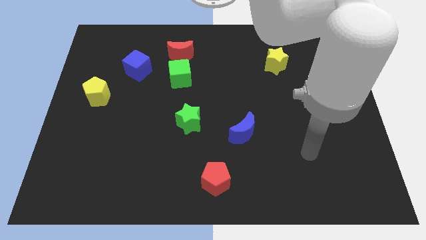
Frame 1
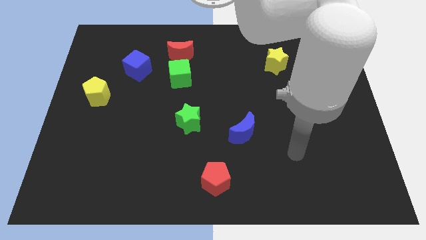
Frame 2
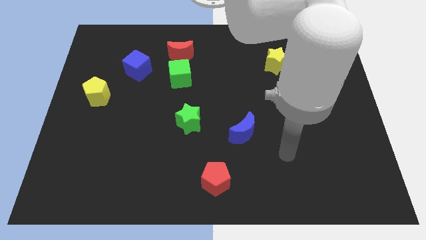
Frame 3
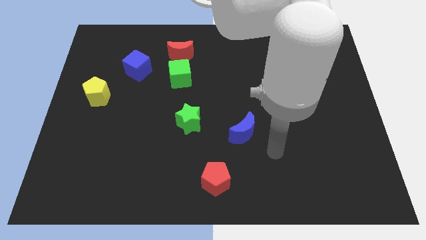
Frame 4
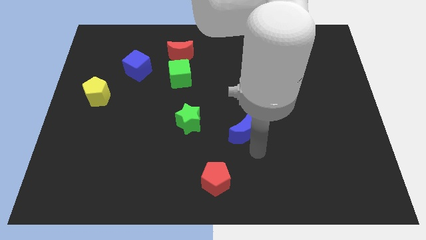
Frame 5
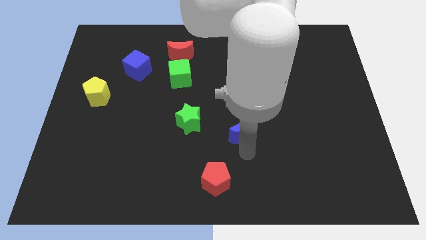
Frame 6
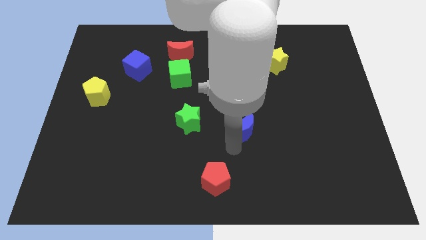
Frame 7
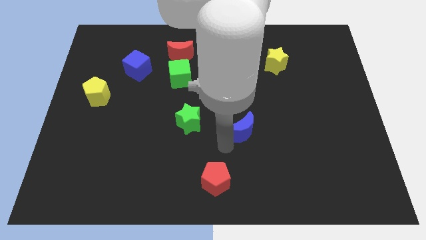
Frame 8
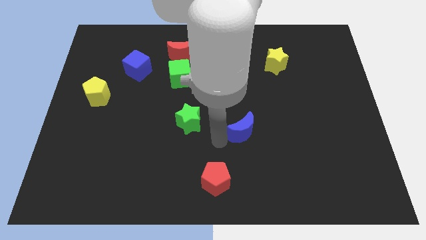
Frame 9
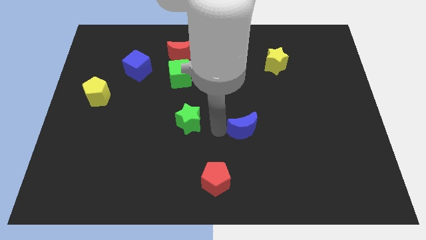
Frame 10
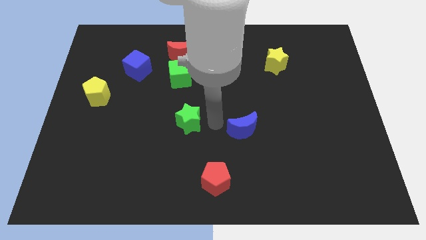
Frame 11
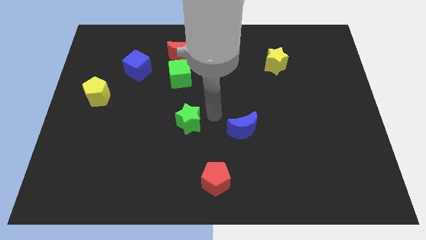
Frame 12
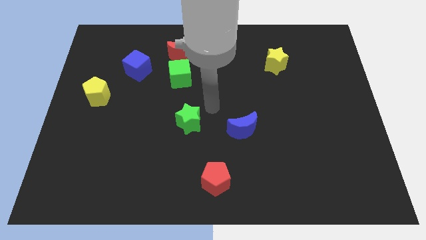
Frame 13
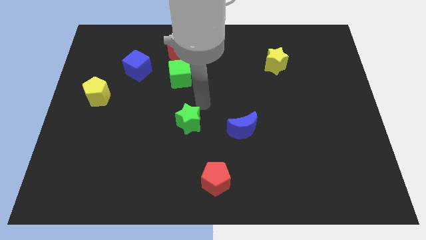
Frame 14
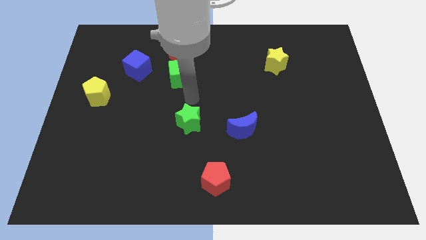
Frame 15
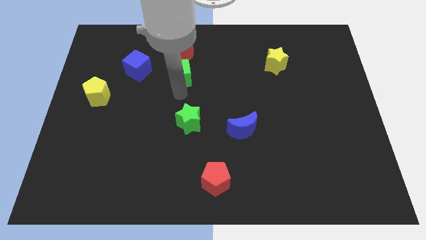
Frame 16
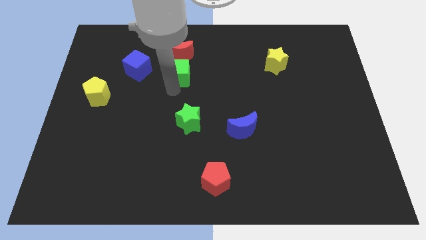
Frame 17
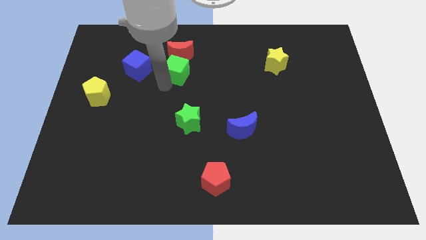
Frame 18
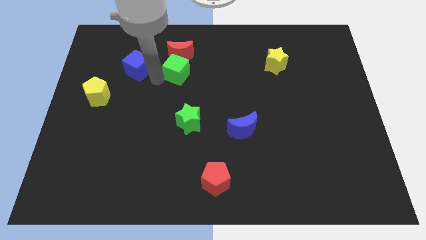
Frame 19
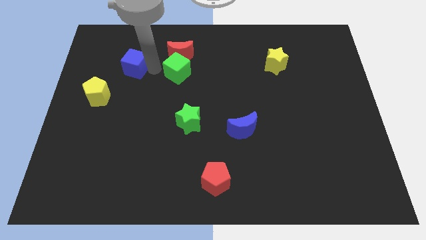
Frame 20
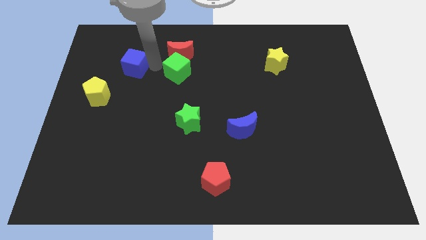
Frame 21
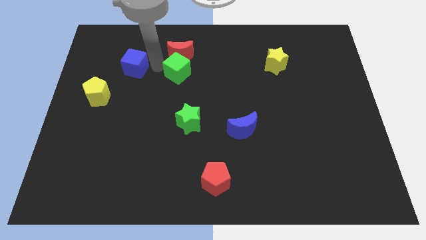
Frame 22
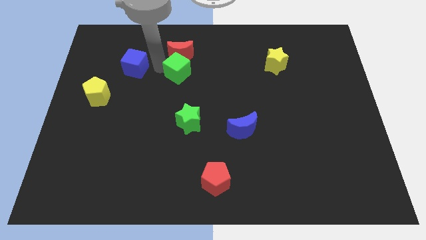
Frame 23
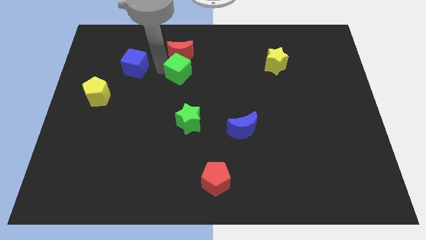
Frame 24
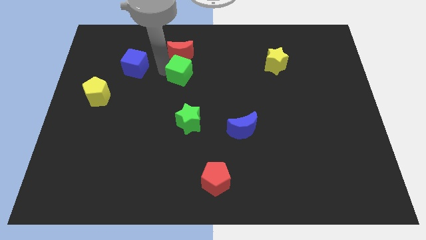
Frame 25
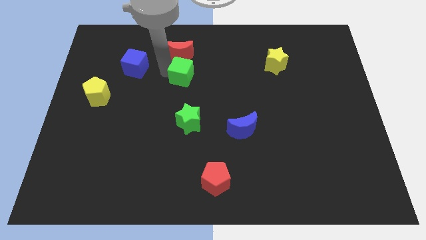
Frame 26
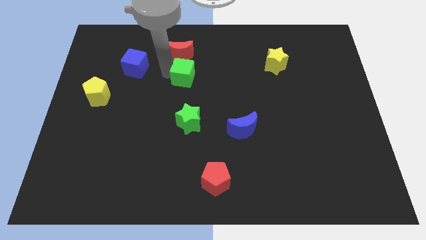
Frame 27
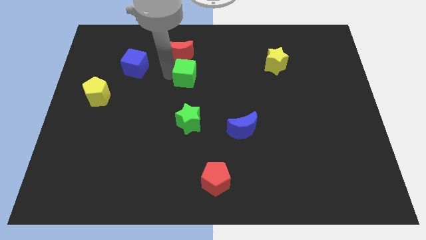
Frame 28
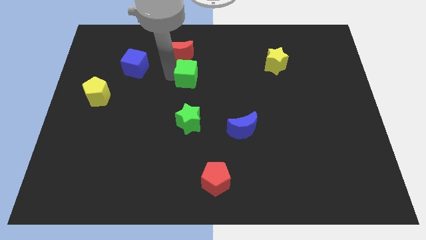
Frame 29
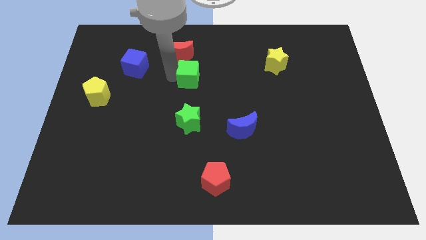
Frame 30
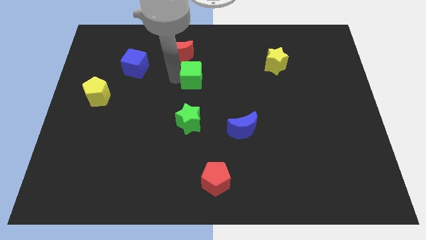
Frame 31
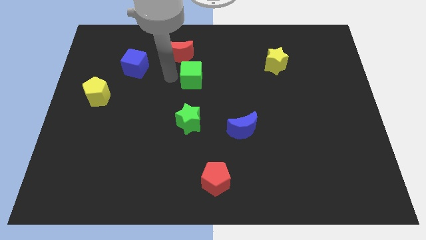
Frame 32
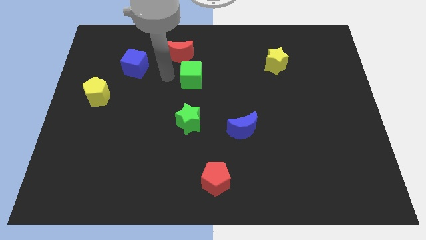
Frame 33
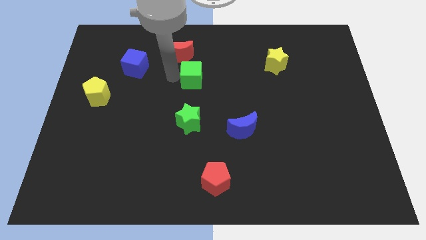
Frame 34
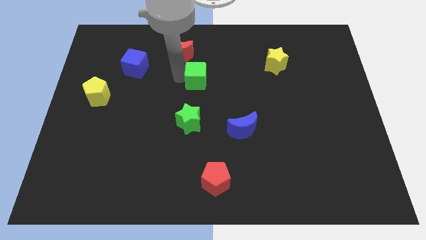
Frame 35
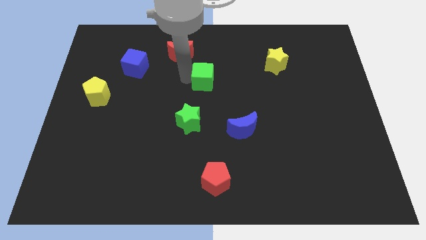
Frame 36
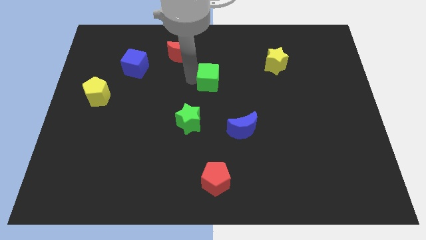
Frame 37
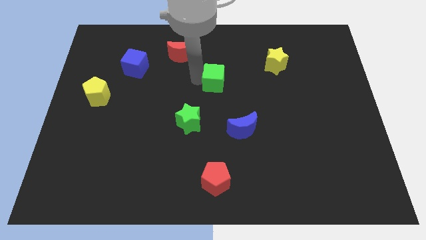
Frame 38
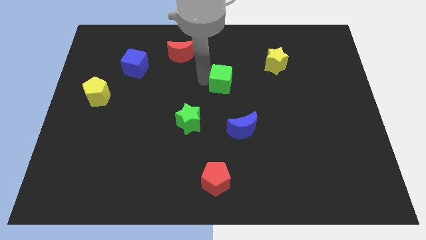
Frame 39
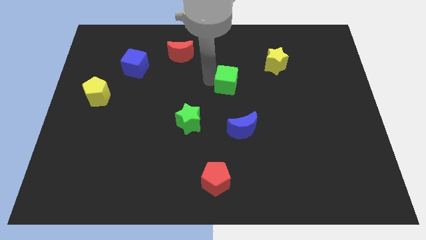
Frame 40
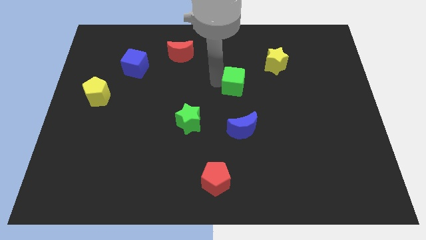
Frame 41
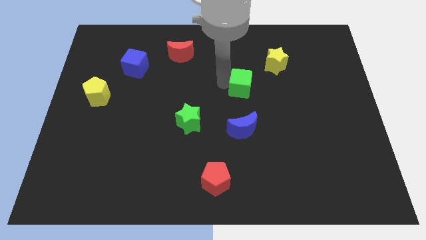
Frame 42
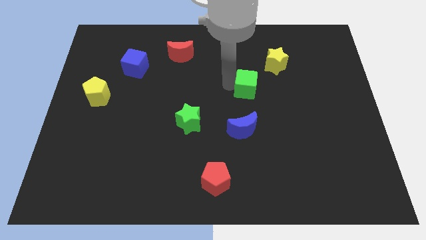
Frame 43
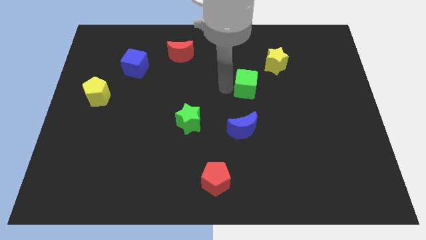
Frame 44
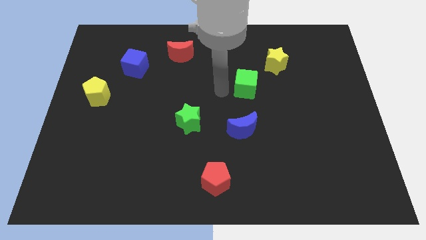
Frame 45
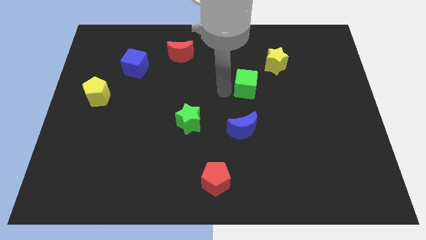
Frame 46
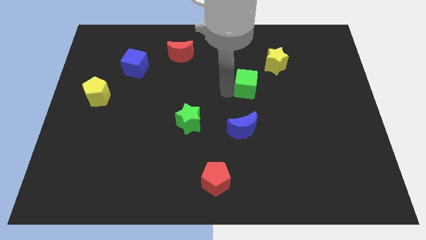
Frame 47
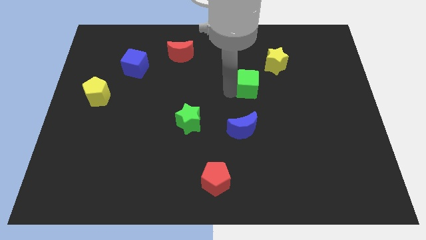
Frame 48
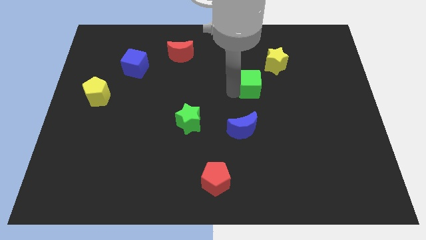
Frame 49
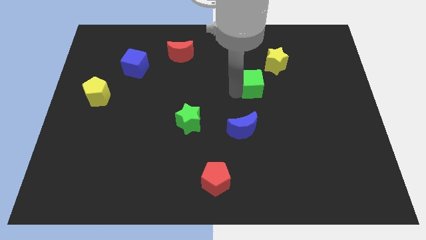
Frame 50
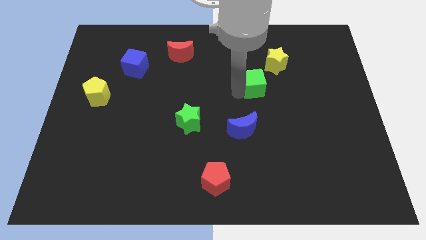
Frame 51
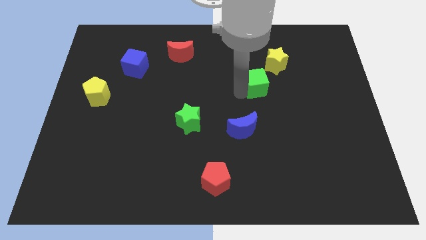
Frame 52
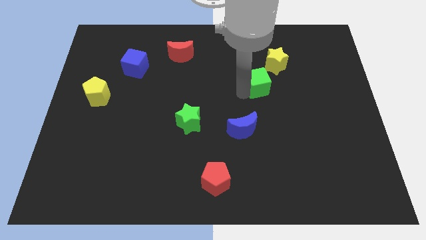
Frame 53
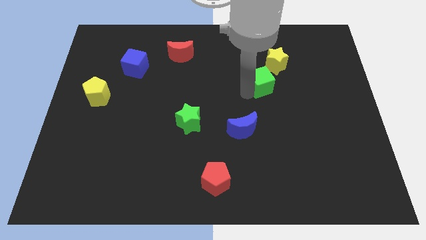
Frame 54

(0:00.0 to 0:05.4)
move the green cube right

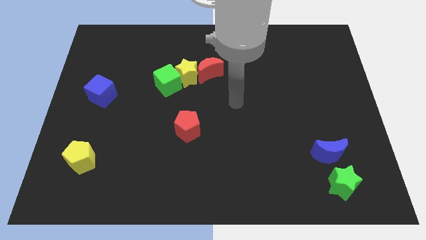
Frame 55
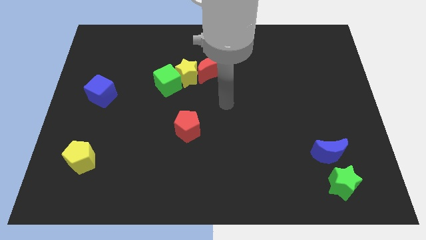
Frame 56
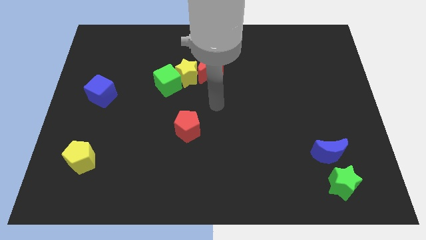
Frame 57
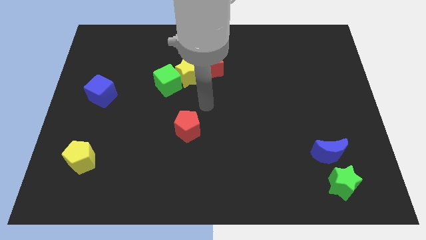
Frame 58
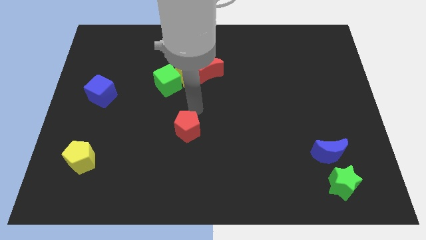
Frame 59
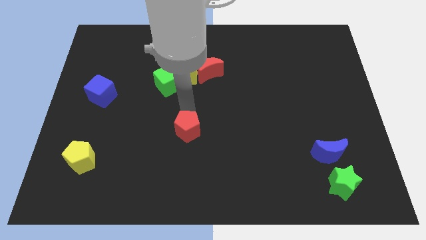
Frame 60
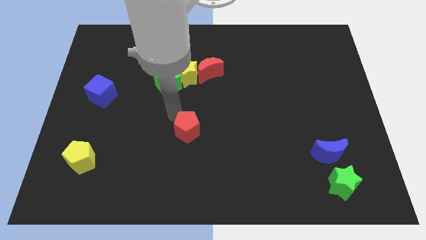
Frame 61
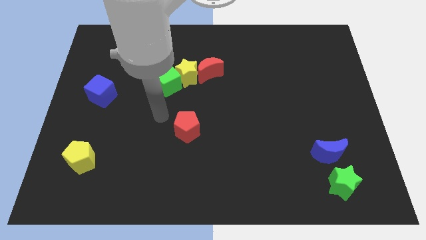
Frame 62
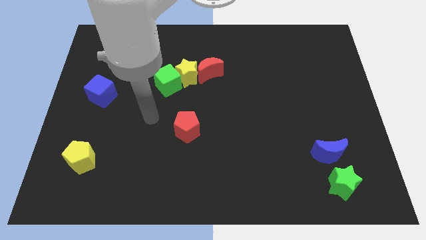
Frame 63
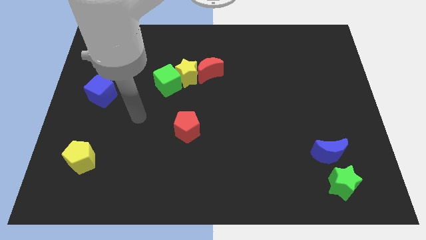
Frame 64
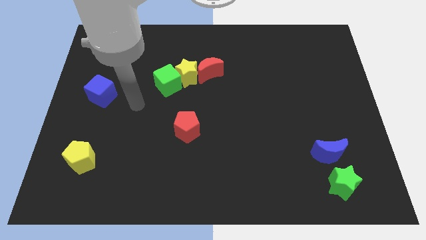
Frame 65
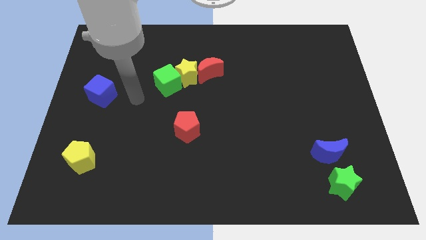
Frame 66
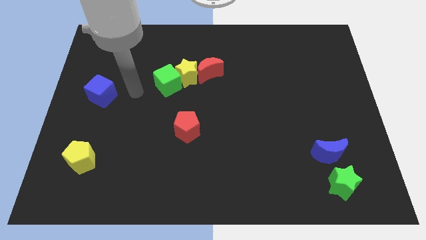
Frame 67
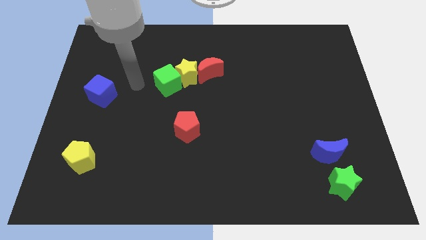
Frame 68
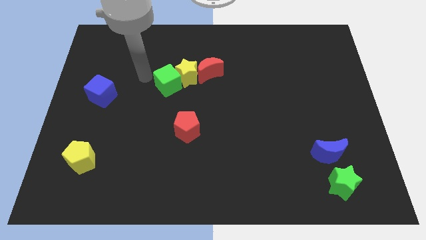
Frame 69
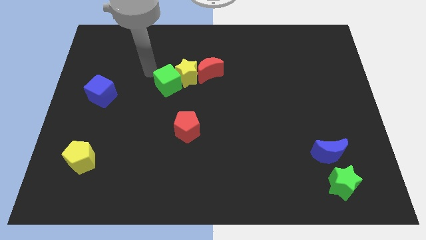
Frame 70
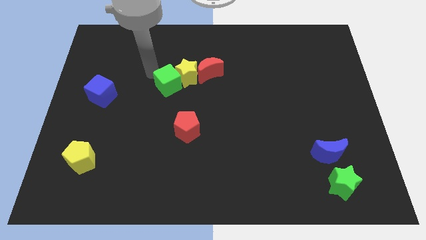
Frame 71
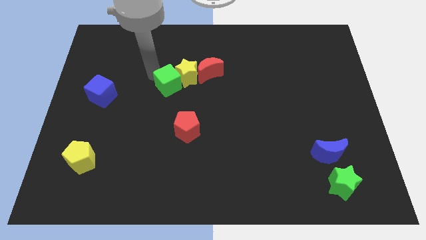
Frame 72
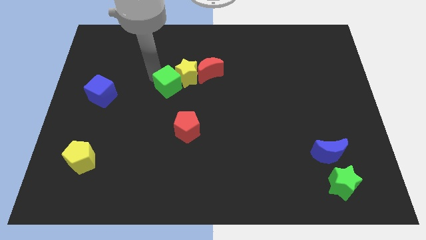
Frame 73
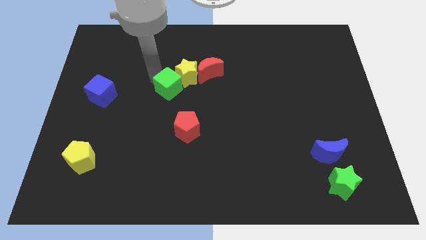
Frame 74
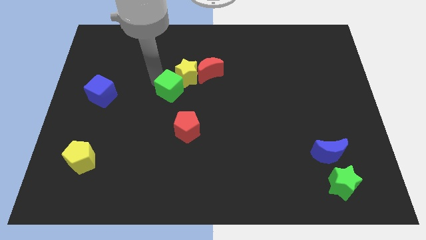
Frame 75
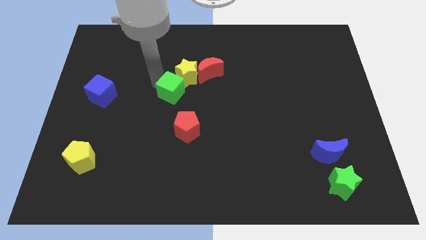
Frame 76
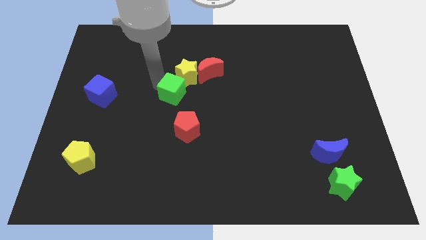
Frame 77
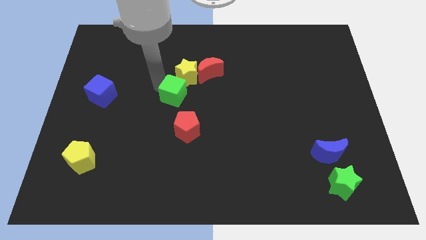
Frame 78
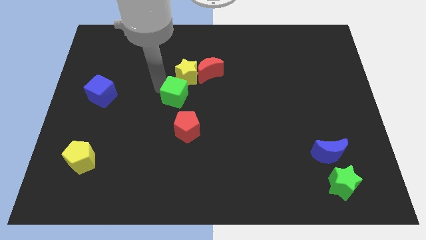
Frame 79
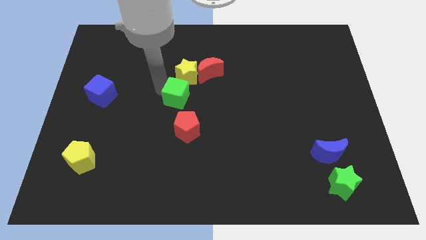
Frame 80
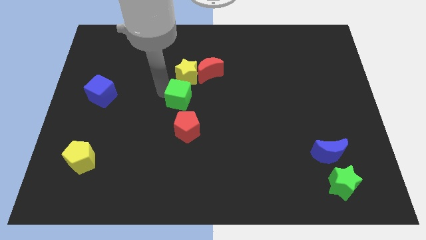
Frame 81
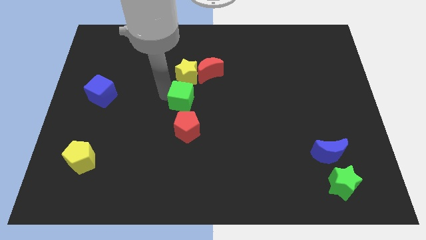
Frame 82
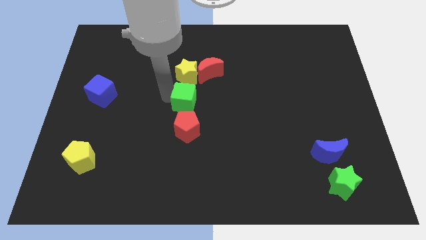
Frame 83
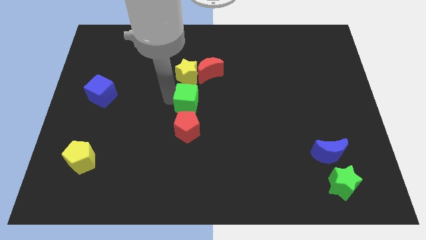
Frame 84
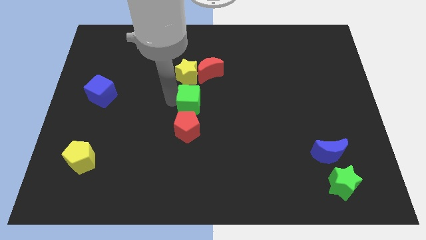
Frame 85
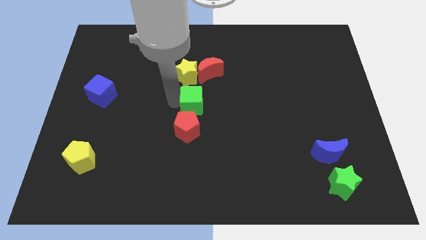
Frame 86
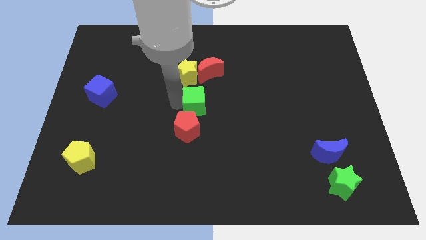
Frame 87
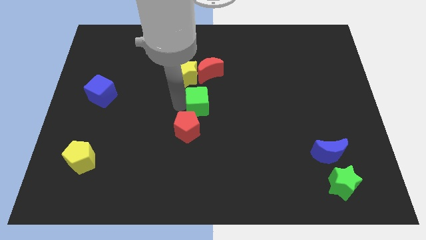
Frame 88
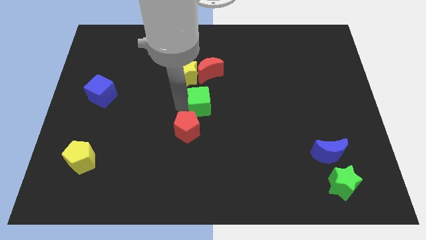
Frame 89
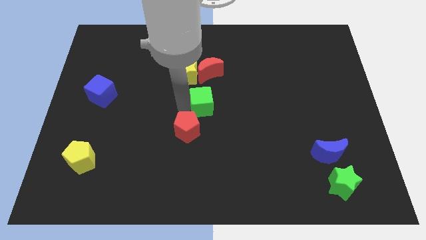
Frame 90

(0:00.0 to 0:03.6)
slightly slide the green cube to the right
